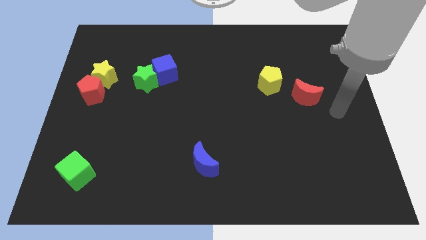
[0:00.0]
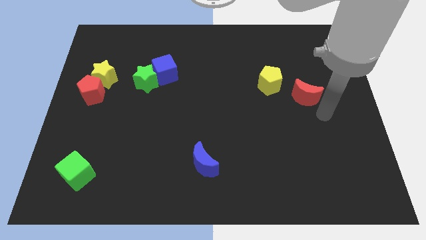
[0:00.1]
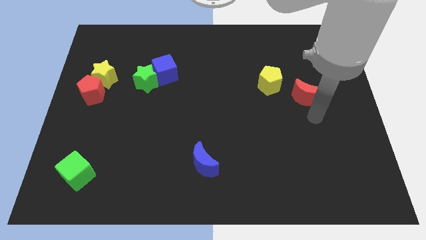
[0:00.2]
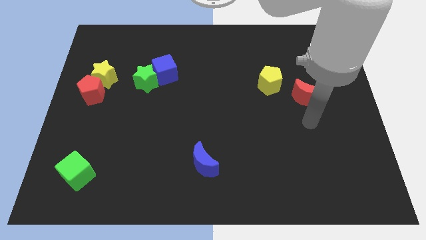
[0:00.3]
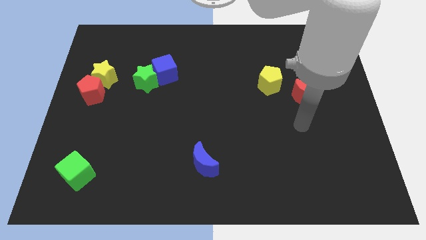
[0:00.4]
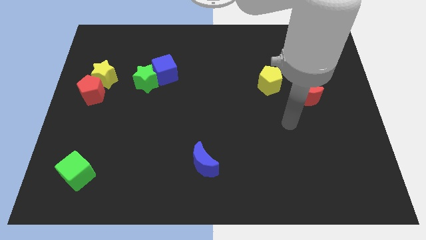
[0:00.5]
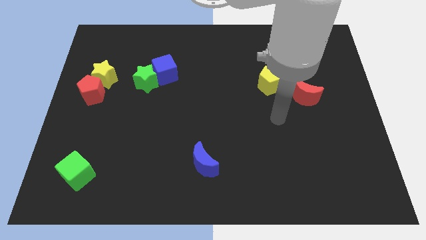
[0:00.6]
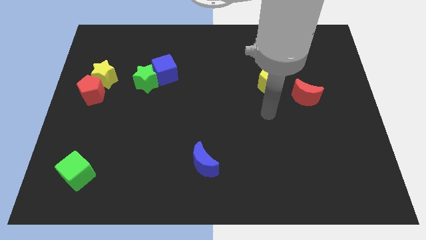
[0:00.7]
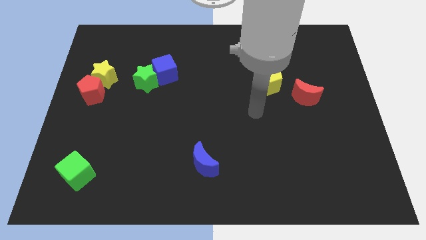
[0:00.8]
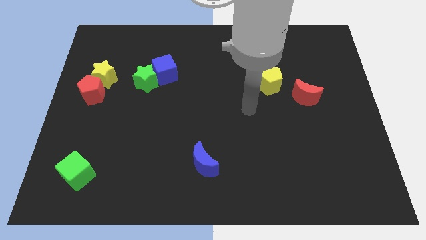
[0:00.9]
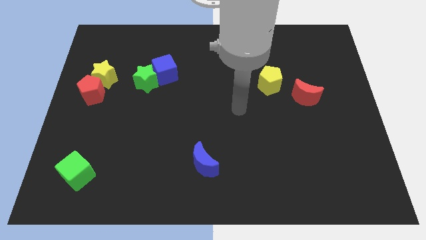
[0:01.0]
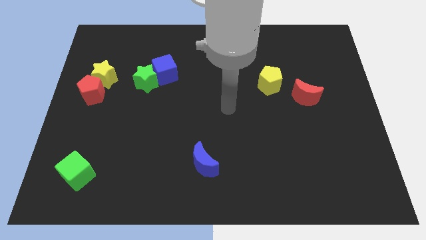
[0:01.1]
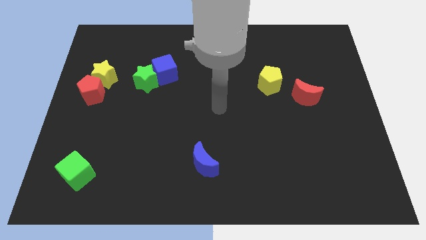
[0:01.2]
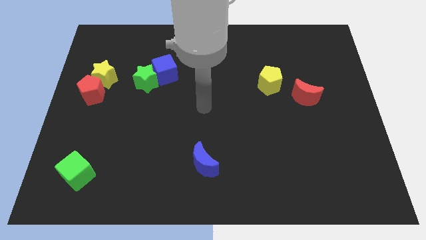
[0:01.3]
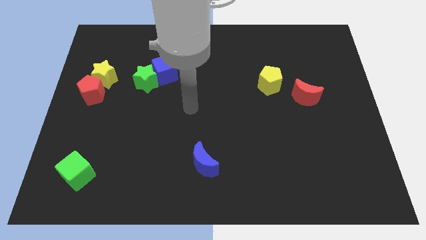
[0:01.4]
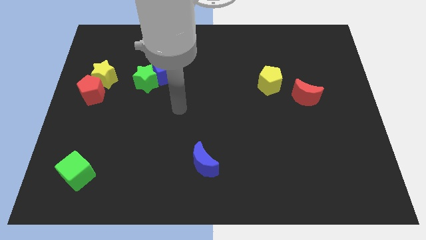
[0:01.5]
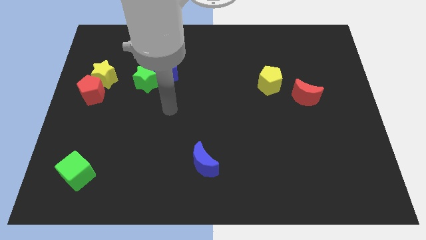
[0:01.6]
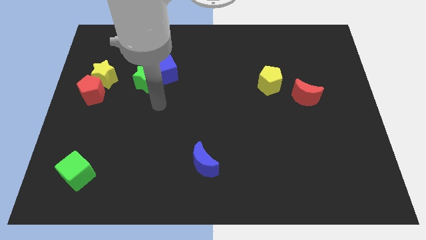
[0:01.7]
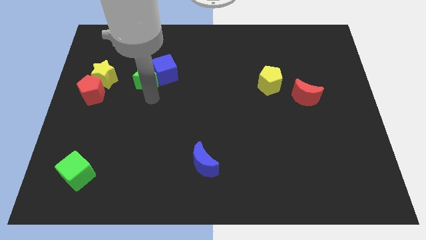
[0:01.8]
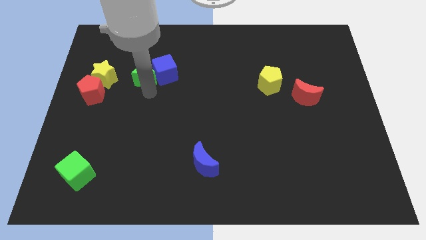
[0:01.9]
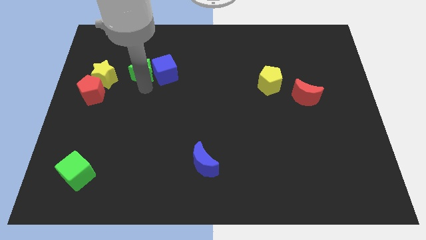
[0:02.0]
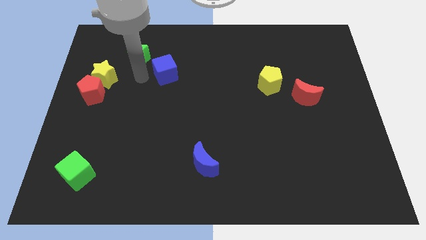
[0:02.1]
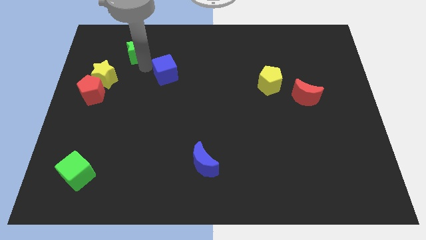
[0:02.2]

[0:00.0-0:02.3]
move the blue cube away from the green star

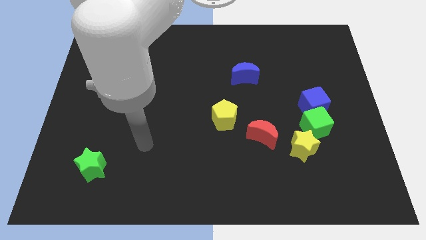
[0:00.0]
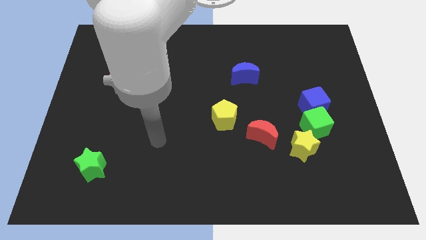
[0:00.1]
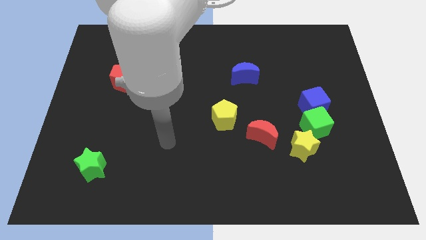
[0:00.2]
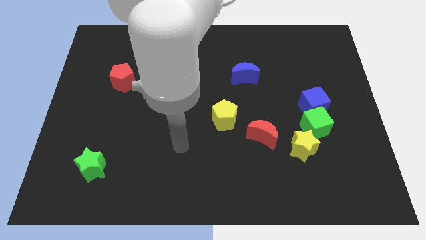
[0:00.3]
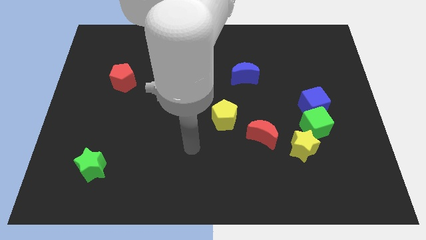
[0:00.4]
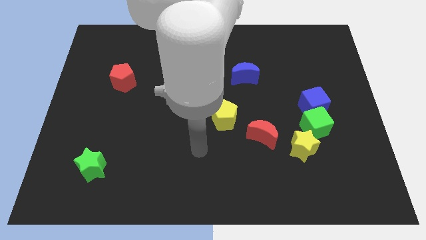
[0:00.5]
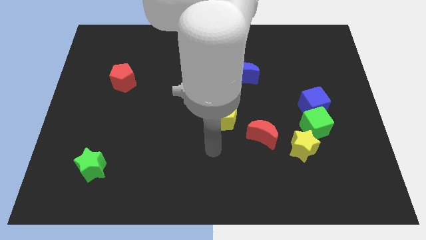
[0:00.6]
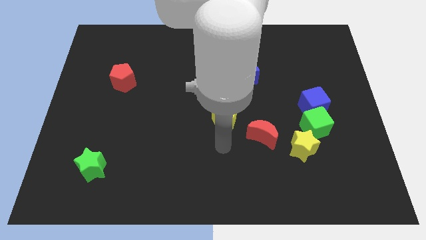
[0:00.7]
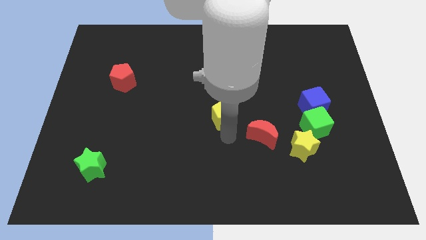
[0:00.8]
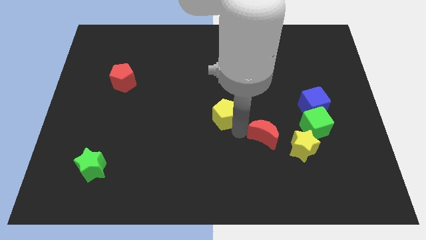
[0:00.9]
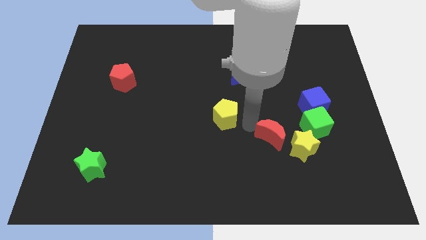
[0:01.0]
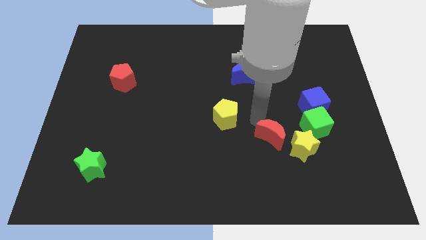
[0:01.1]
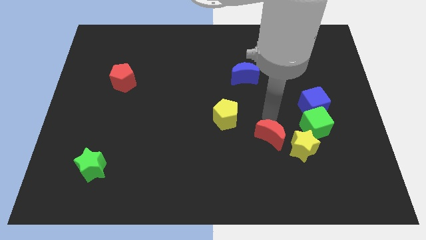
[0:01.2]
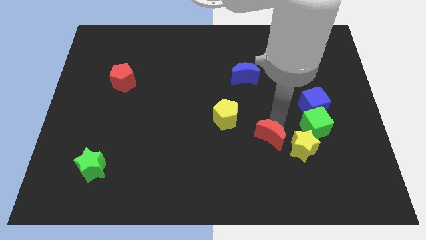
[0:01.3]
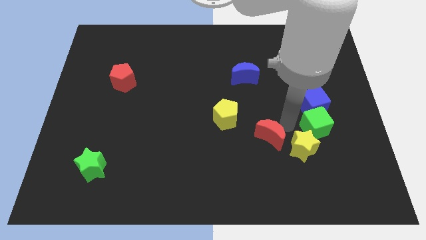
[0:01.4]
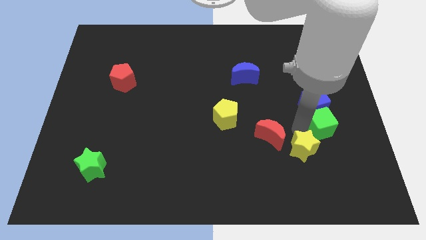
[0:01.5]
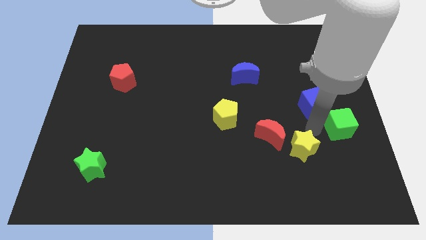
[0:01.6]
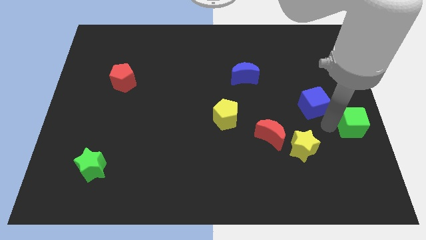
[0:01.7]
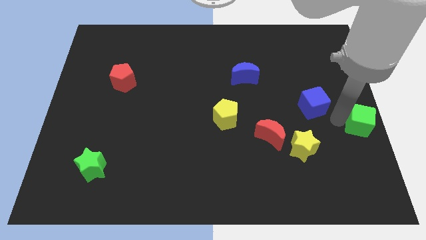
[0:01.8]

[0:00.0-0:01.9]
separate the blue cube from the green cube

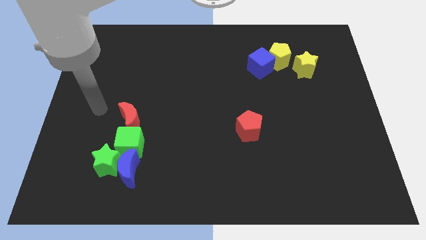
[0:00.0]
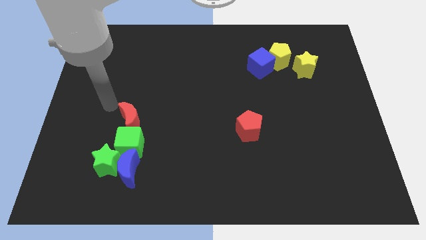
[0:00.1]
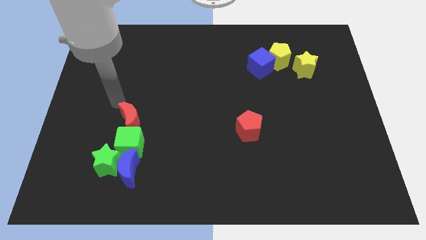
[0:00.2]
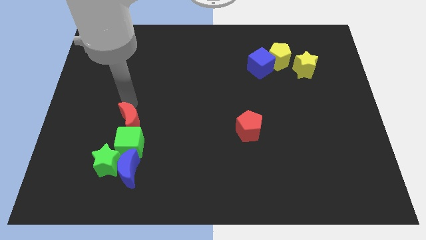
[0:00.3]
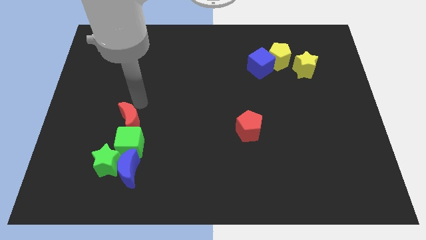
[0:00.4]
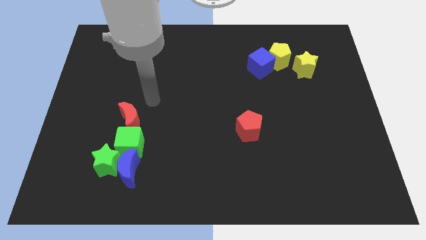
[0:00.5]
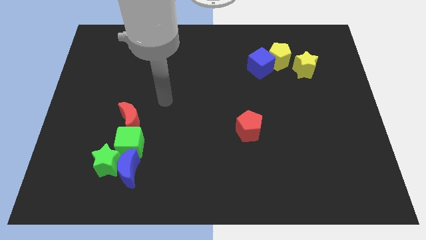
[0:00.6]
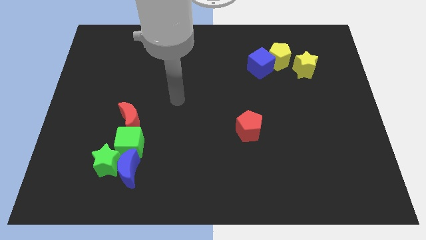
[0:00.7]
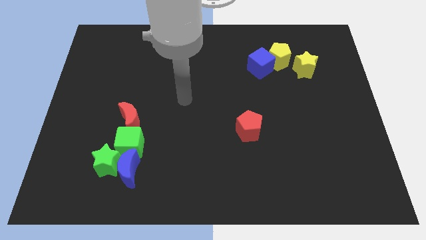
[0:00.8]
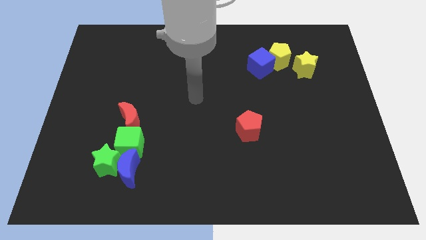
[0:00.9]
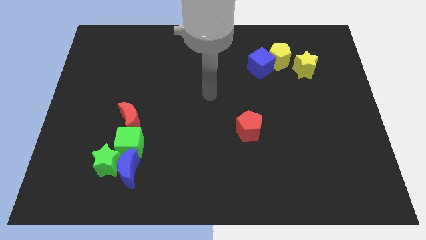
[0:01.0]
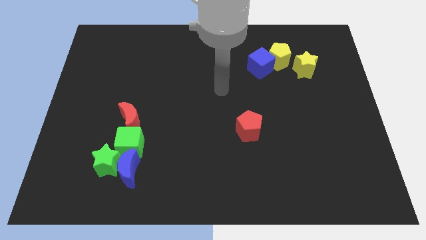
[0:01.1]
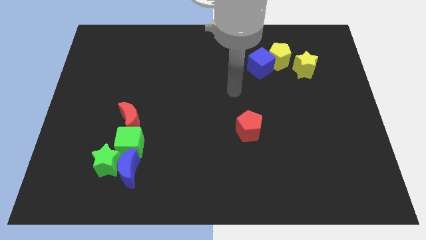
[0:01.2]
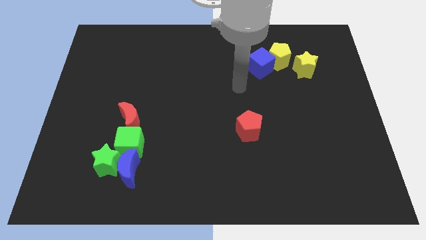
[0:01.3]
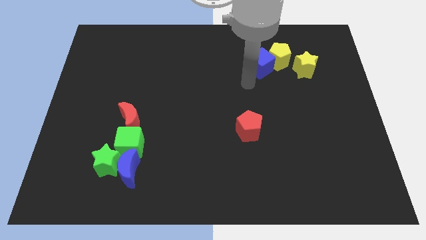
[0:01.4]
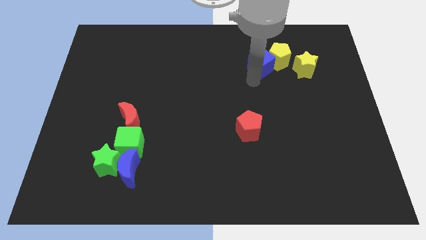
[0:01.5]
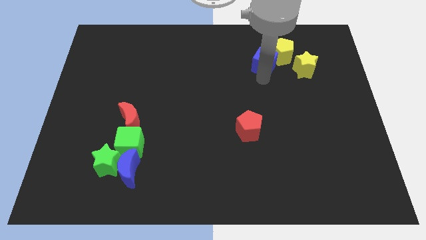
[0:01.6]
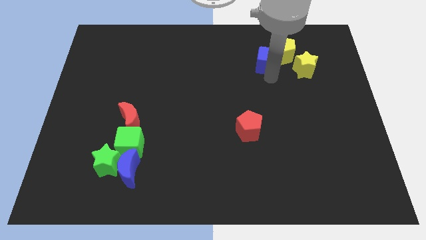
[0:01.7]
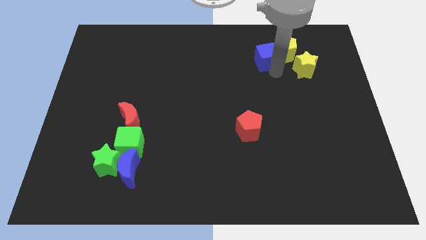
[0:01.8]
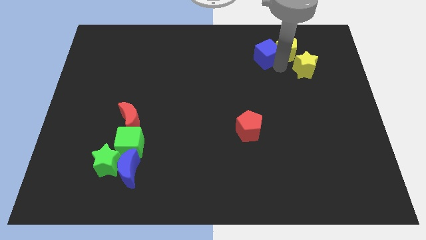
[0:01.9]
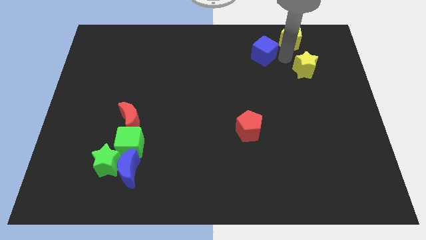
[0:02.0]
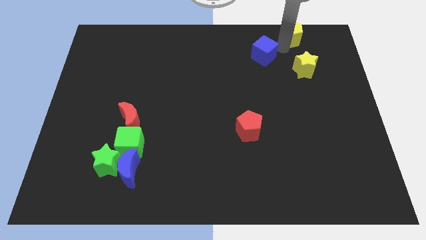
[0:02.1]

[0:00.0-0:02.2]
separate the blue cube from the yellow pentagon

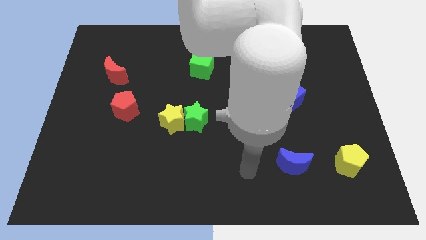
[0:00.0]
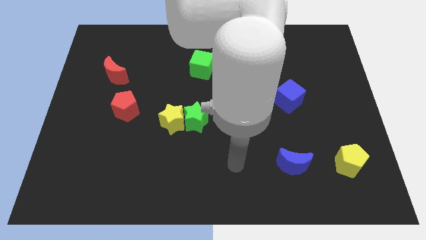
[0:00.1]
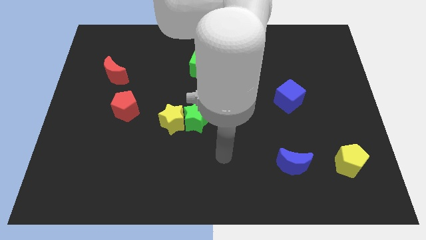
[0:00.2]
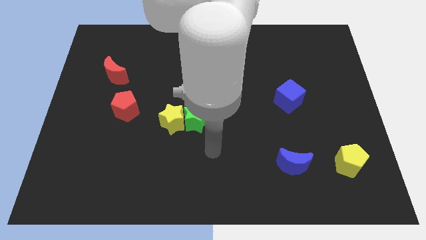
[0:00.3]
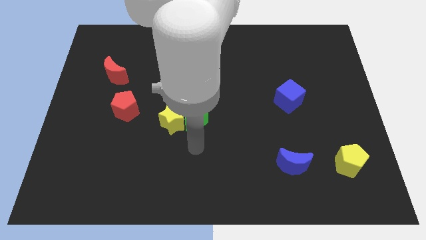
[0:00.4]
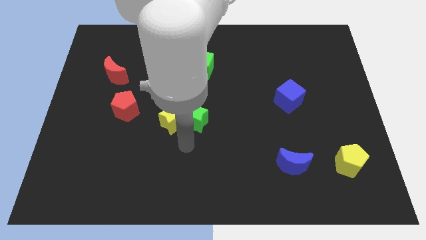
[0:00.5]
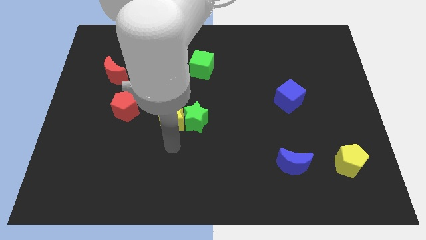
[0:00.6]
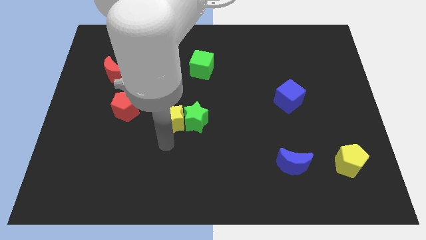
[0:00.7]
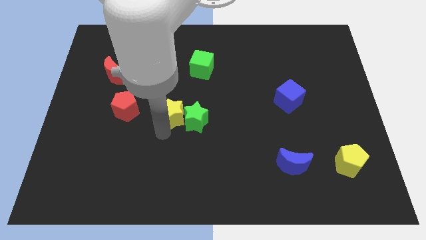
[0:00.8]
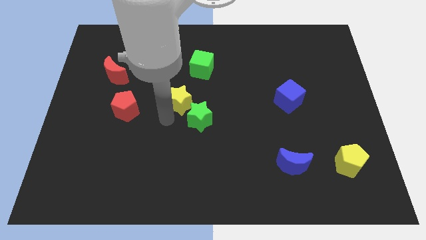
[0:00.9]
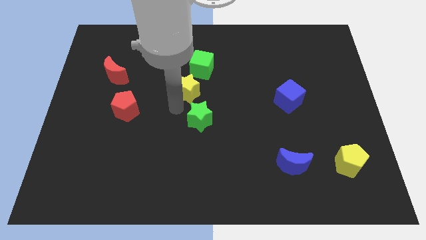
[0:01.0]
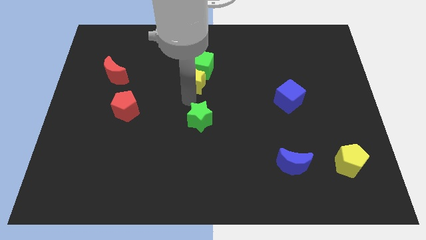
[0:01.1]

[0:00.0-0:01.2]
move the green star away from the yellow star

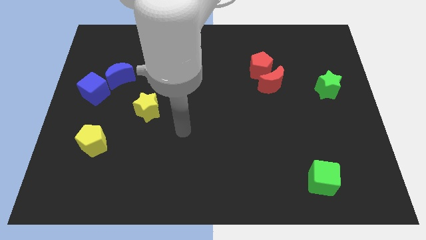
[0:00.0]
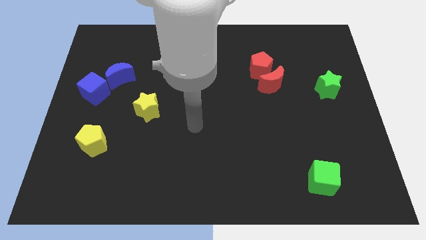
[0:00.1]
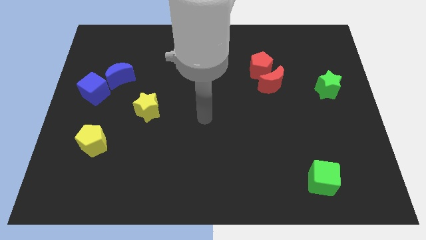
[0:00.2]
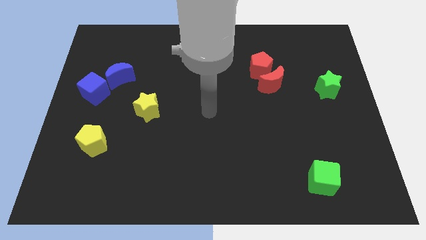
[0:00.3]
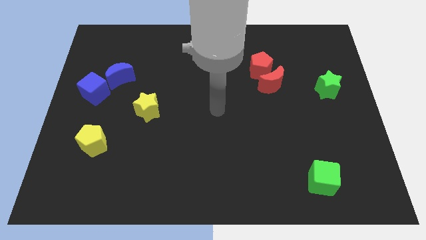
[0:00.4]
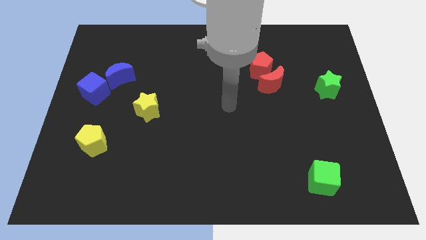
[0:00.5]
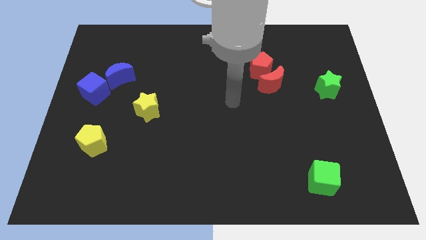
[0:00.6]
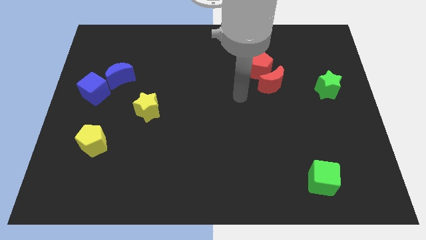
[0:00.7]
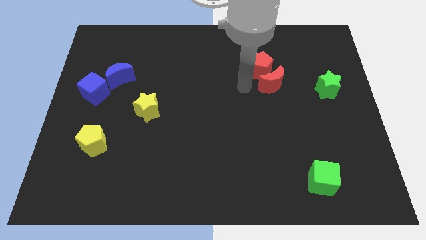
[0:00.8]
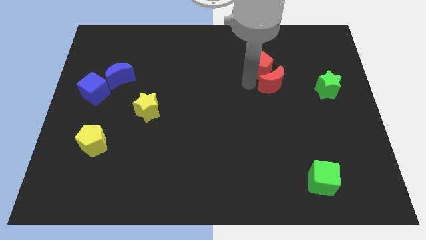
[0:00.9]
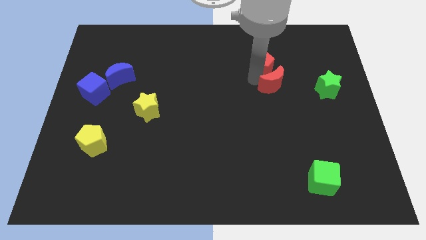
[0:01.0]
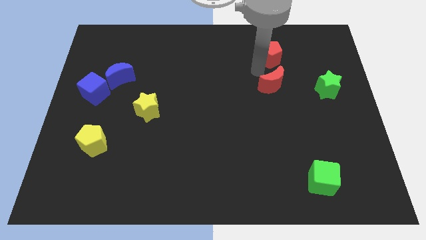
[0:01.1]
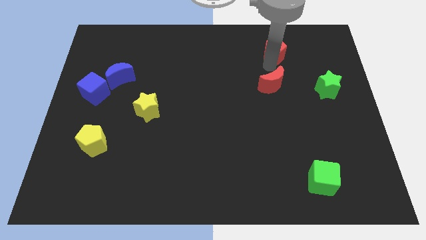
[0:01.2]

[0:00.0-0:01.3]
move the red moon away from the red pentagon

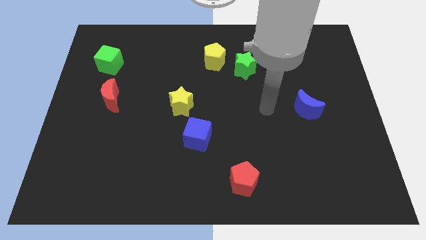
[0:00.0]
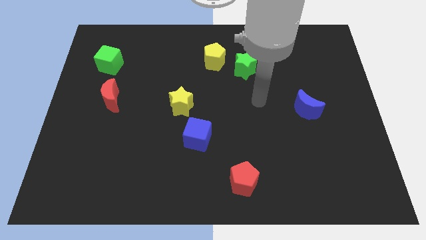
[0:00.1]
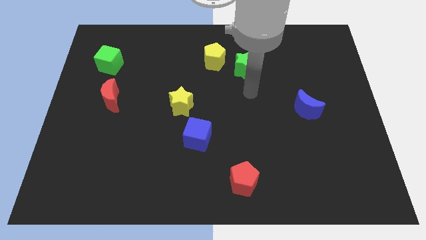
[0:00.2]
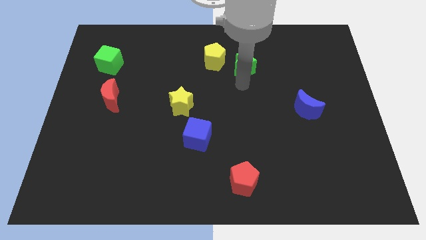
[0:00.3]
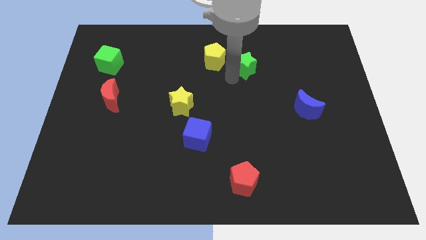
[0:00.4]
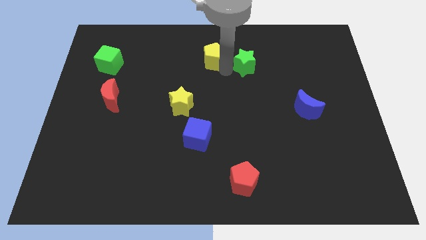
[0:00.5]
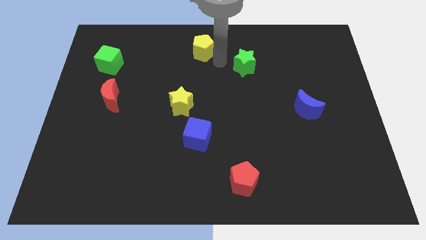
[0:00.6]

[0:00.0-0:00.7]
separate the green star from the yellow pentagon
